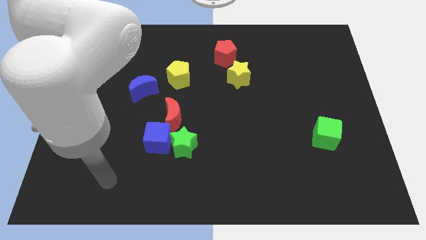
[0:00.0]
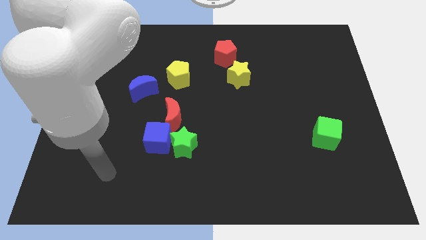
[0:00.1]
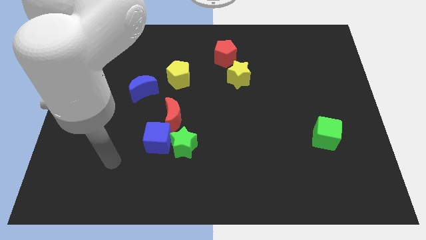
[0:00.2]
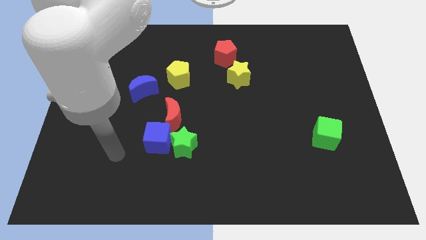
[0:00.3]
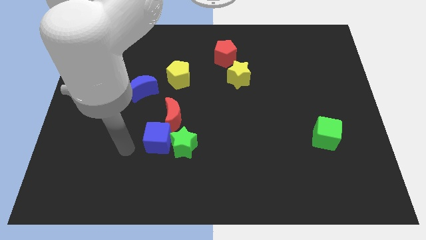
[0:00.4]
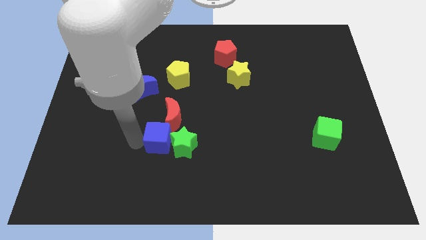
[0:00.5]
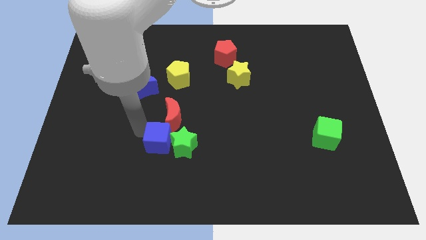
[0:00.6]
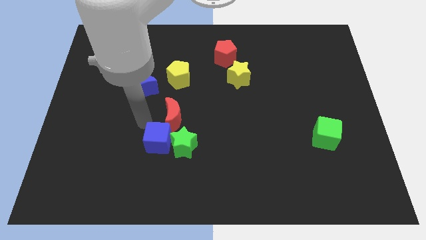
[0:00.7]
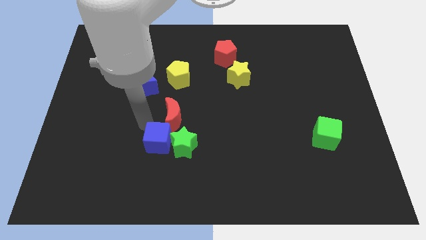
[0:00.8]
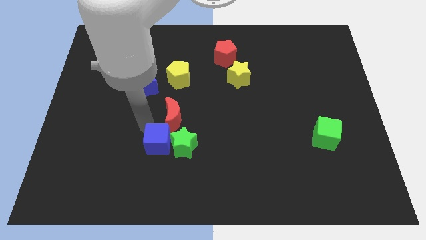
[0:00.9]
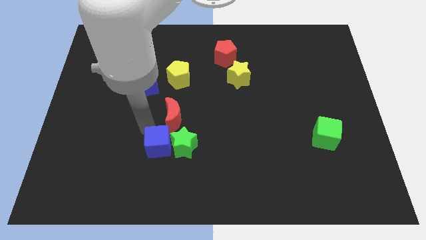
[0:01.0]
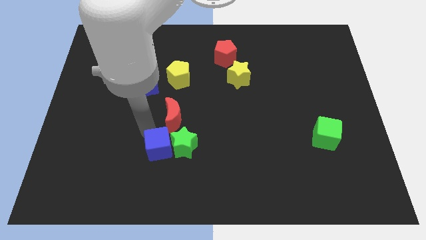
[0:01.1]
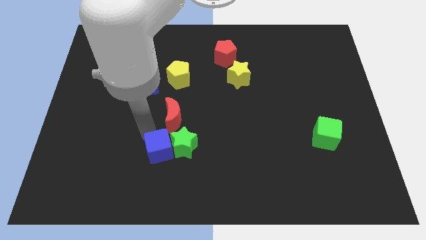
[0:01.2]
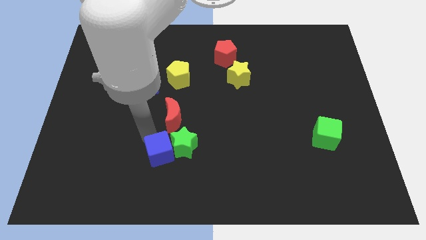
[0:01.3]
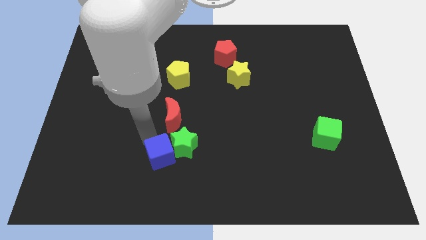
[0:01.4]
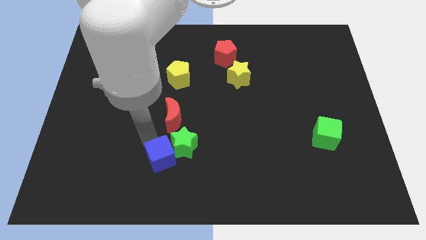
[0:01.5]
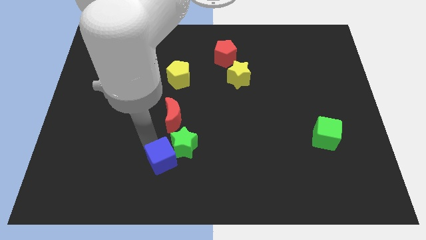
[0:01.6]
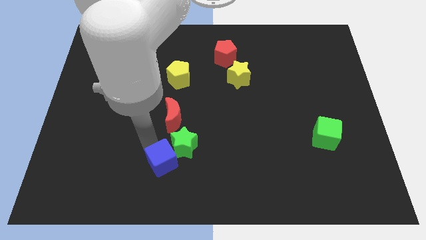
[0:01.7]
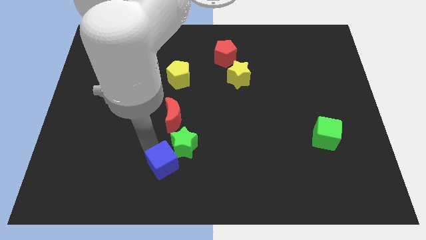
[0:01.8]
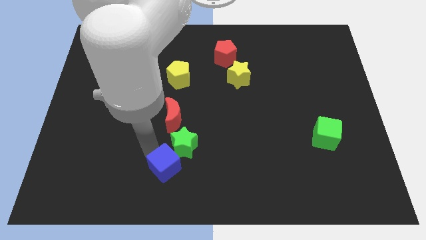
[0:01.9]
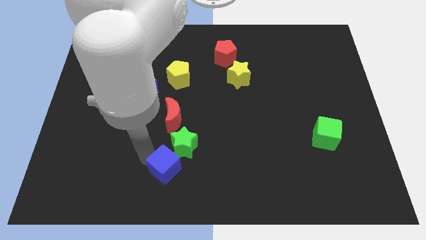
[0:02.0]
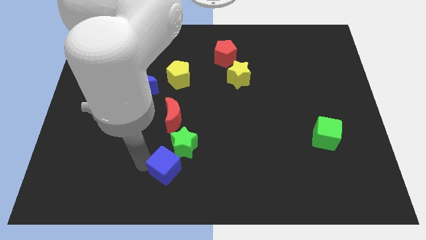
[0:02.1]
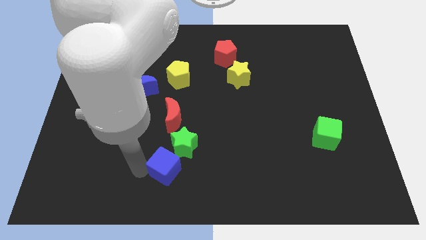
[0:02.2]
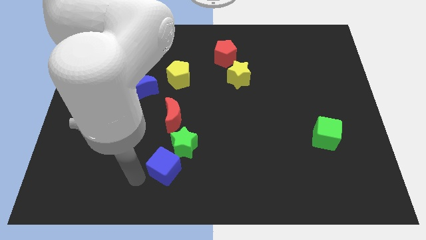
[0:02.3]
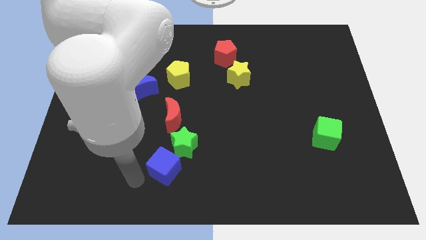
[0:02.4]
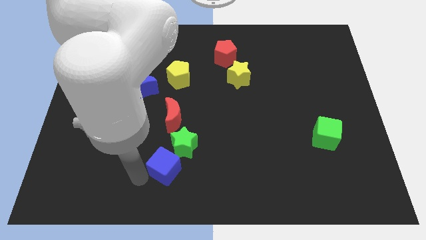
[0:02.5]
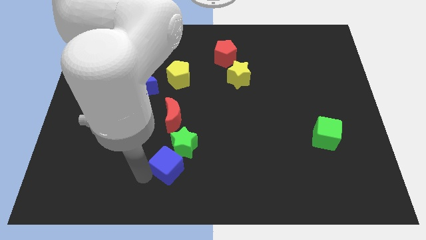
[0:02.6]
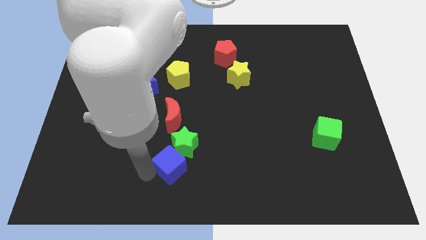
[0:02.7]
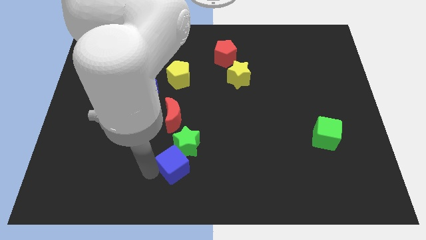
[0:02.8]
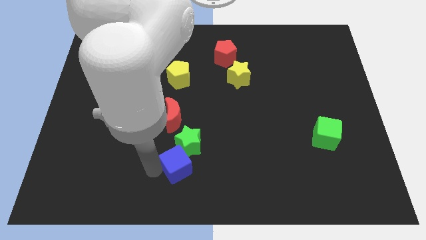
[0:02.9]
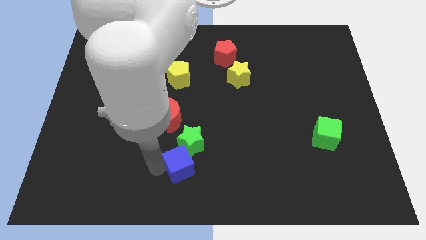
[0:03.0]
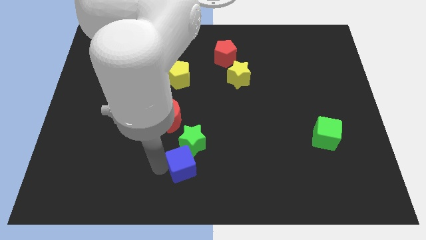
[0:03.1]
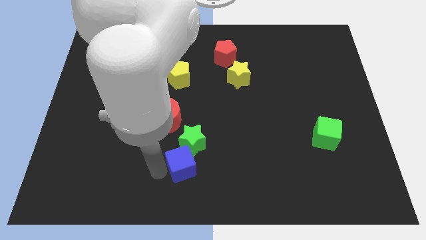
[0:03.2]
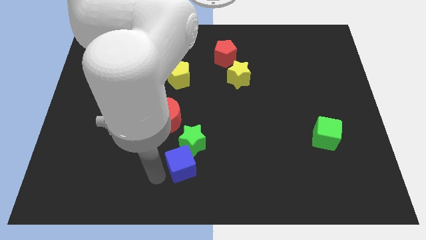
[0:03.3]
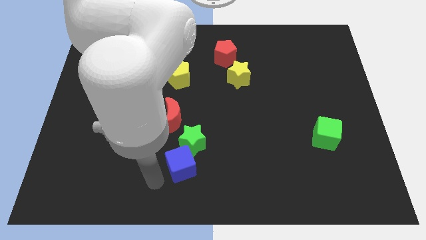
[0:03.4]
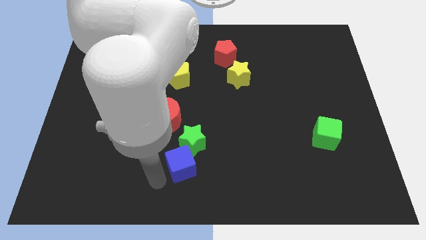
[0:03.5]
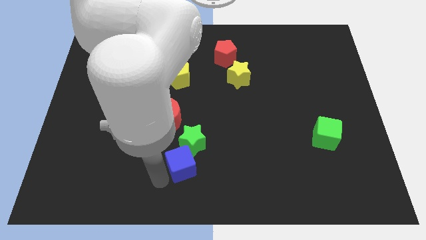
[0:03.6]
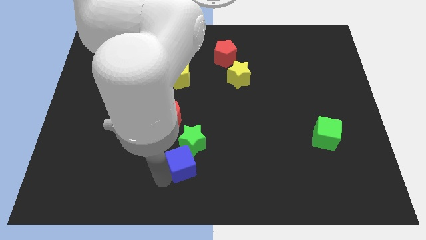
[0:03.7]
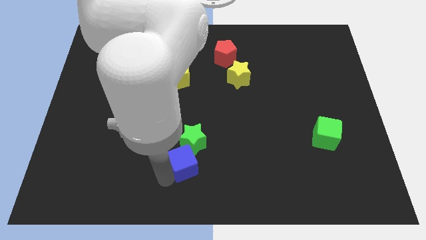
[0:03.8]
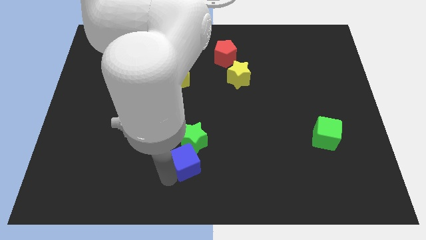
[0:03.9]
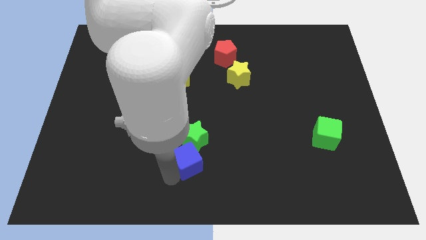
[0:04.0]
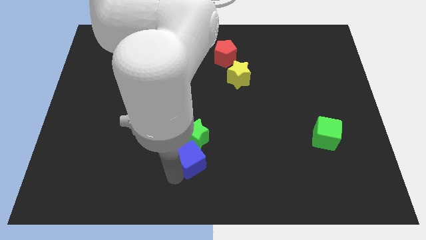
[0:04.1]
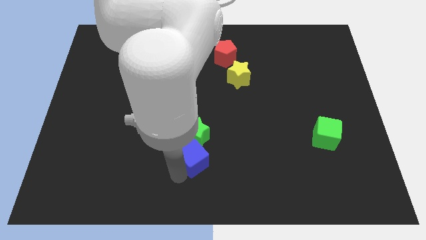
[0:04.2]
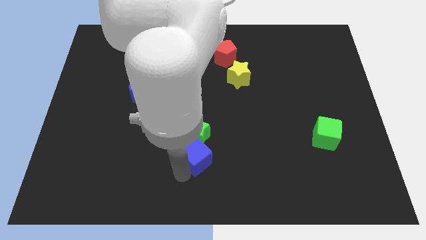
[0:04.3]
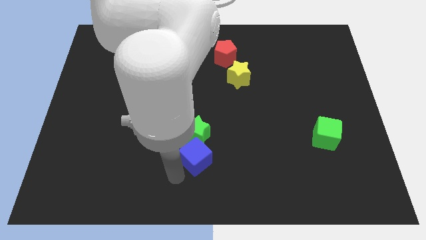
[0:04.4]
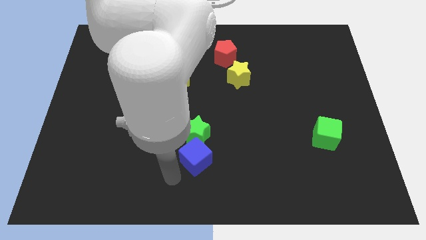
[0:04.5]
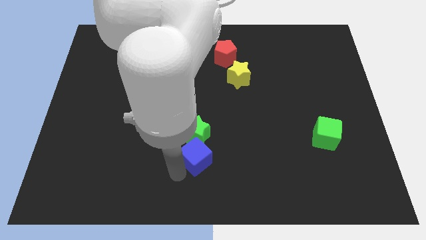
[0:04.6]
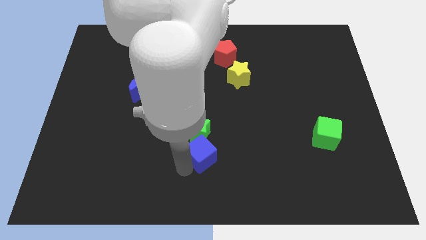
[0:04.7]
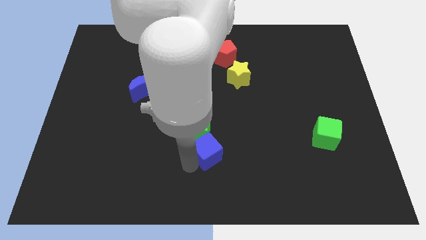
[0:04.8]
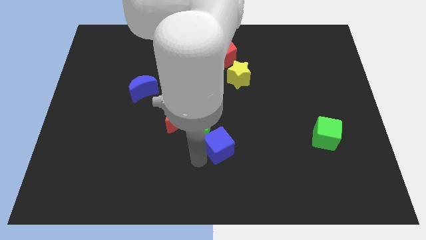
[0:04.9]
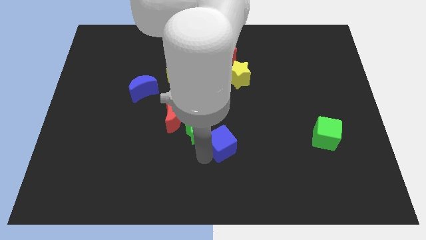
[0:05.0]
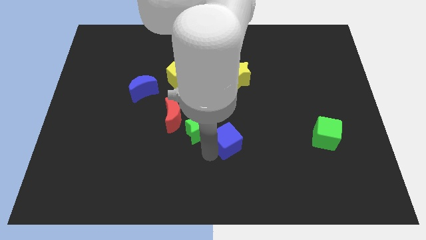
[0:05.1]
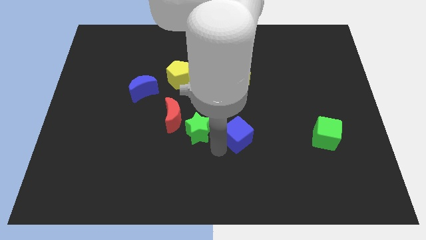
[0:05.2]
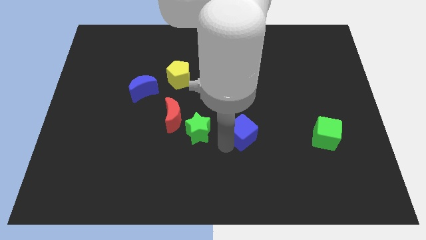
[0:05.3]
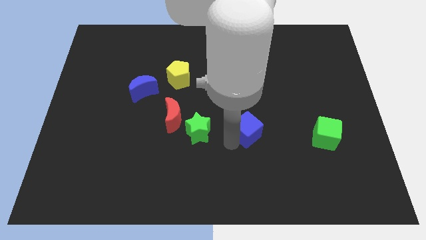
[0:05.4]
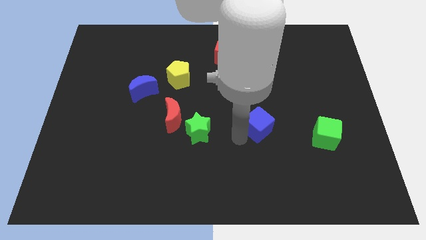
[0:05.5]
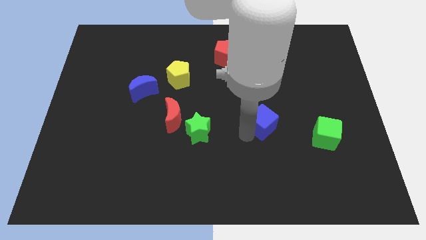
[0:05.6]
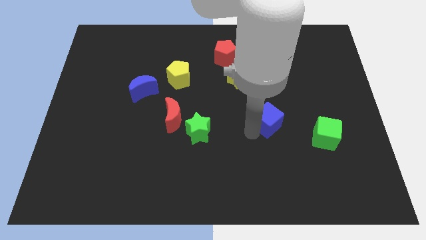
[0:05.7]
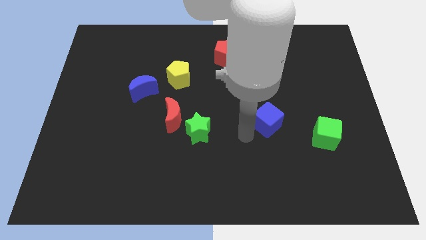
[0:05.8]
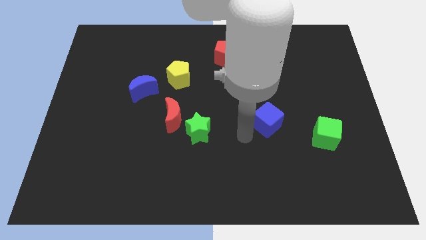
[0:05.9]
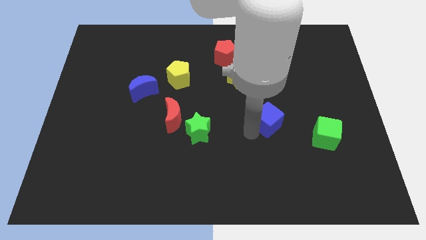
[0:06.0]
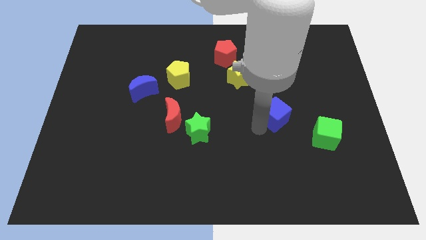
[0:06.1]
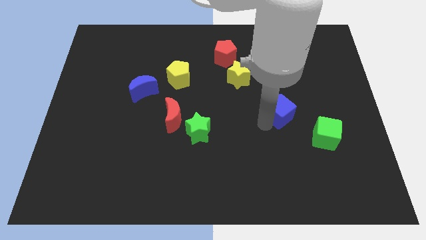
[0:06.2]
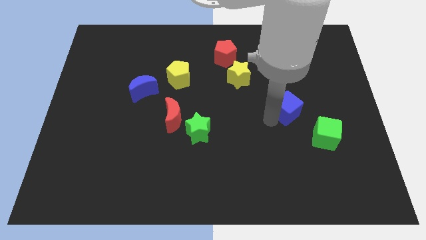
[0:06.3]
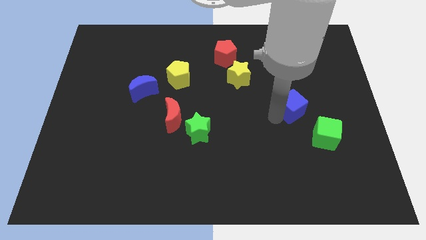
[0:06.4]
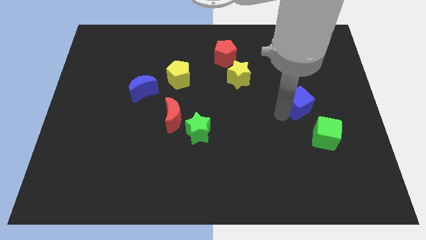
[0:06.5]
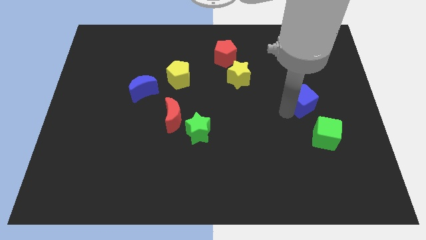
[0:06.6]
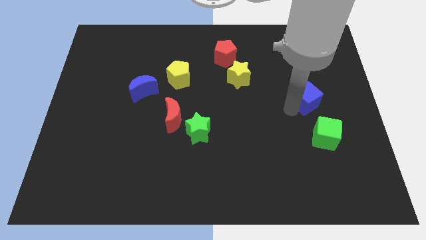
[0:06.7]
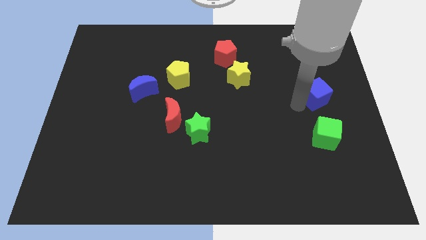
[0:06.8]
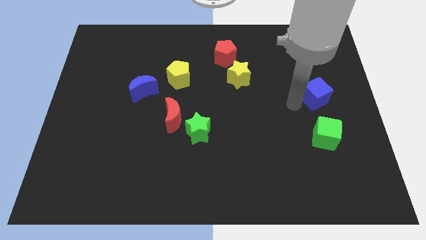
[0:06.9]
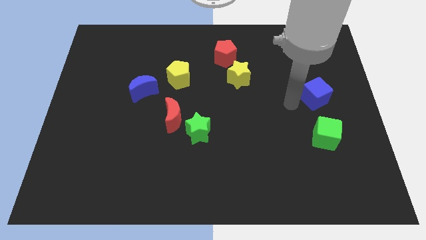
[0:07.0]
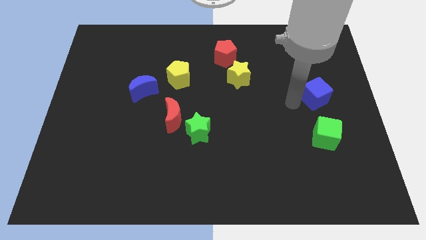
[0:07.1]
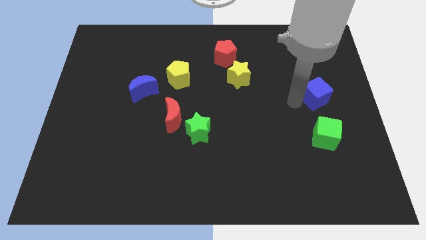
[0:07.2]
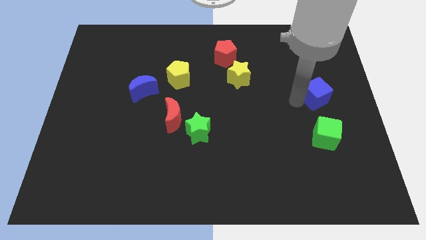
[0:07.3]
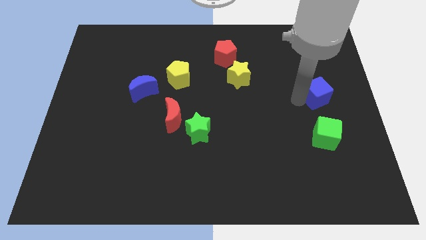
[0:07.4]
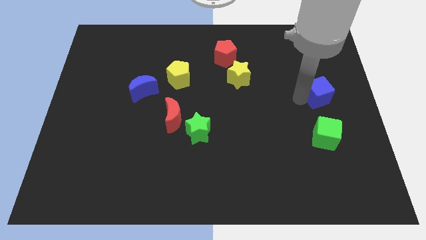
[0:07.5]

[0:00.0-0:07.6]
put the blue cube to the right side of the board
